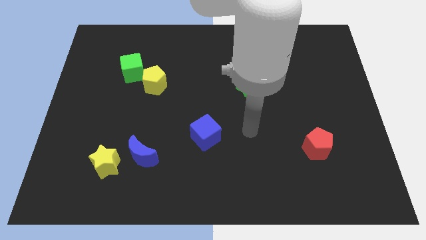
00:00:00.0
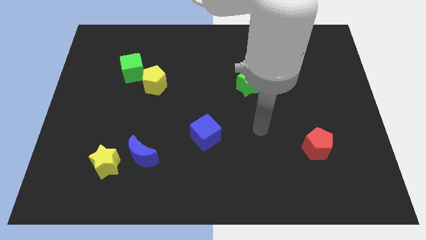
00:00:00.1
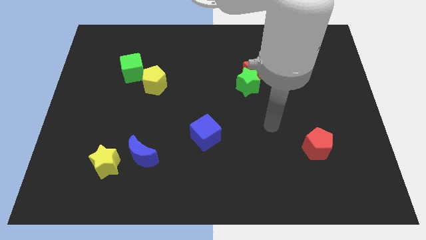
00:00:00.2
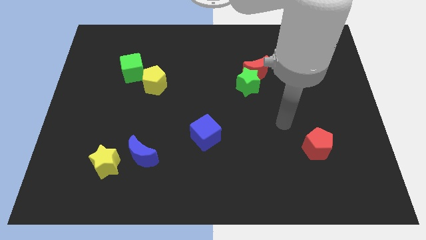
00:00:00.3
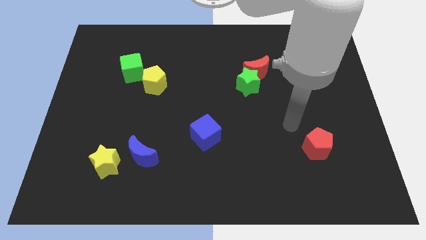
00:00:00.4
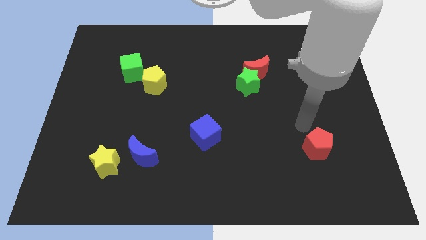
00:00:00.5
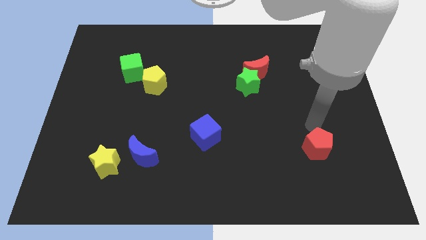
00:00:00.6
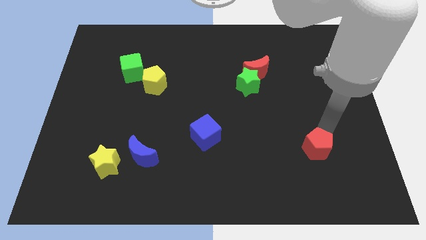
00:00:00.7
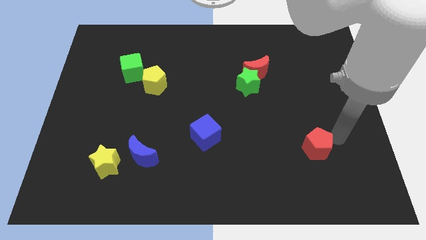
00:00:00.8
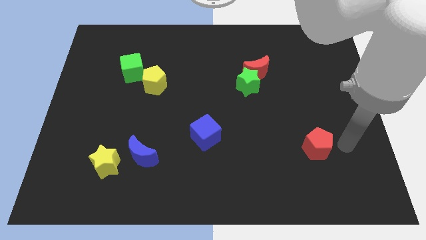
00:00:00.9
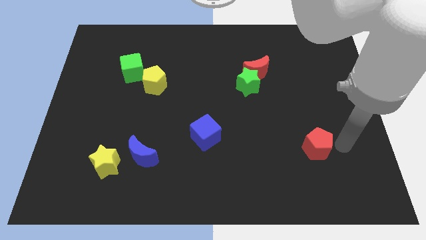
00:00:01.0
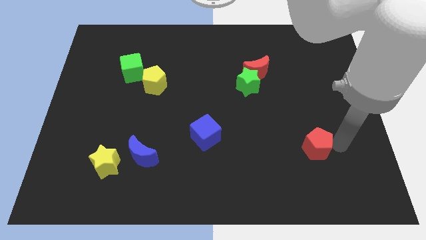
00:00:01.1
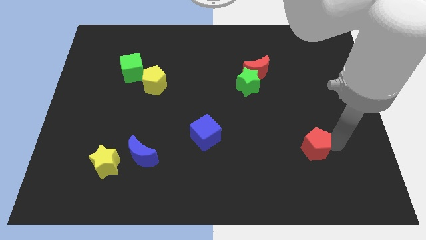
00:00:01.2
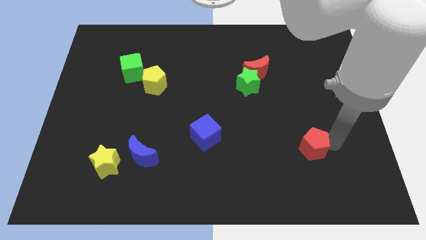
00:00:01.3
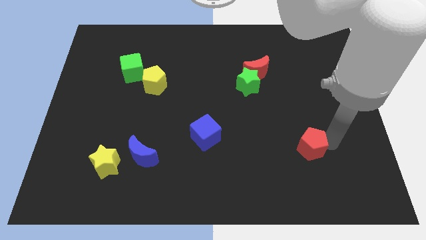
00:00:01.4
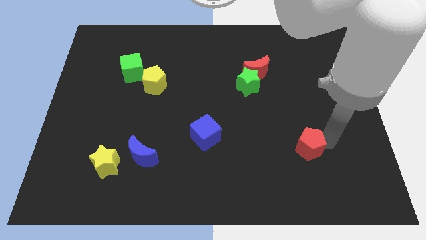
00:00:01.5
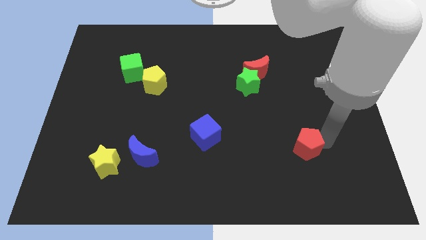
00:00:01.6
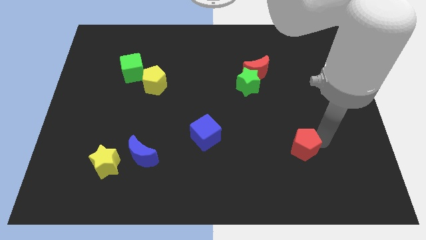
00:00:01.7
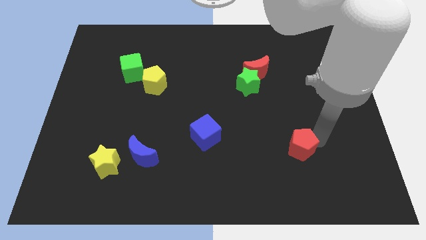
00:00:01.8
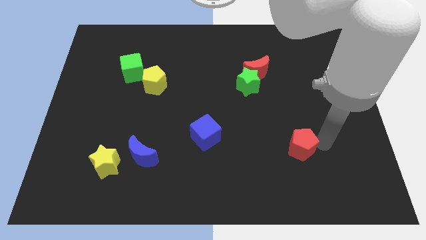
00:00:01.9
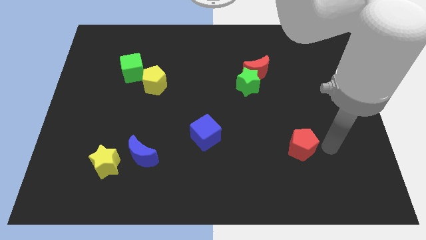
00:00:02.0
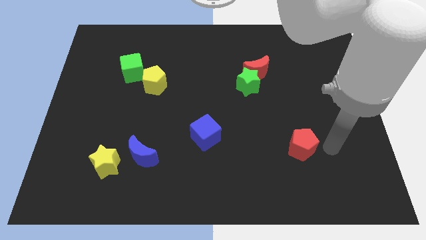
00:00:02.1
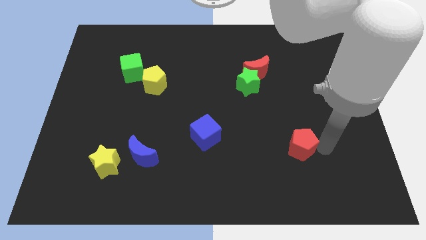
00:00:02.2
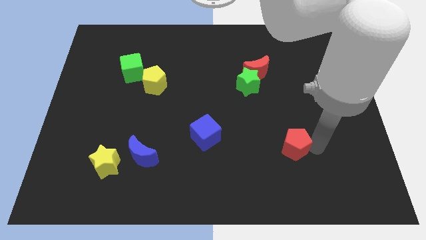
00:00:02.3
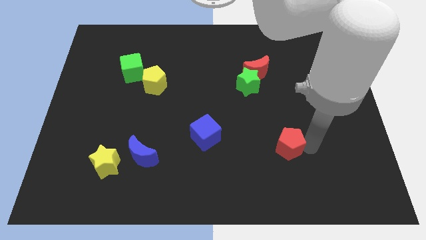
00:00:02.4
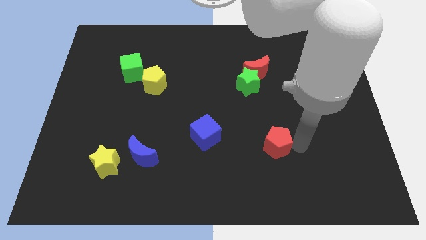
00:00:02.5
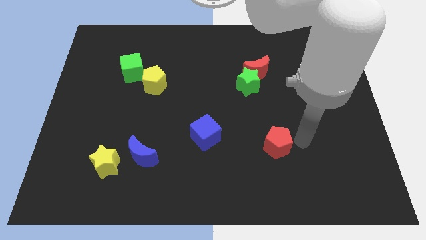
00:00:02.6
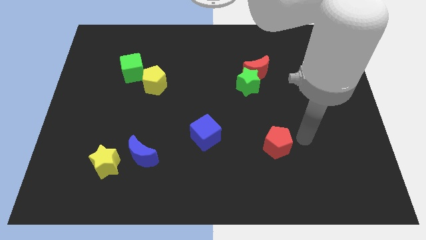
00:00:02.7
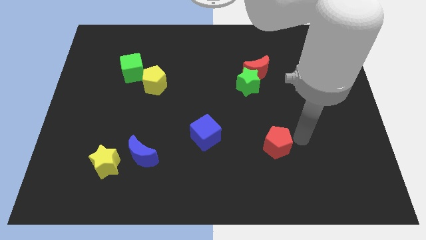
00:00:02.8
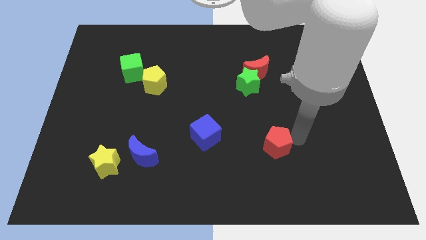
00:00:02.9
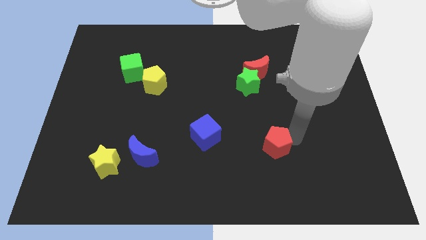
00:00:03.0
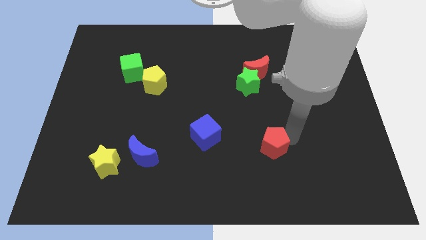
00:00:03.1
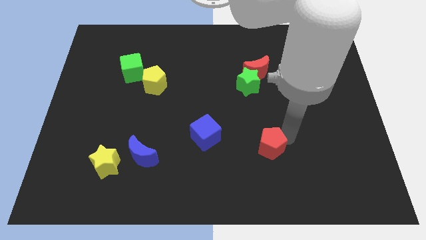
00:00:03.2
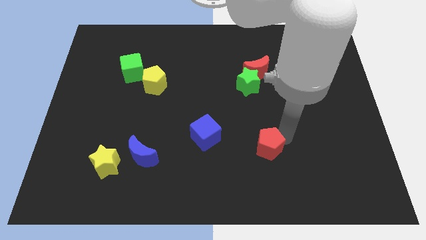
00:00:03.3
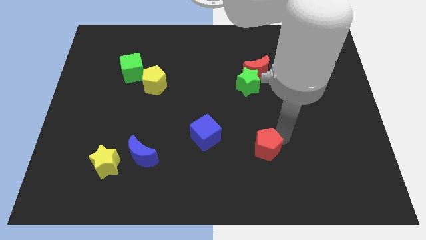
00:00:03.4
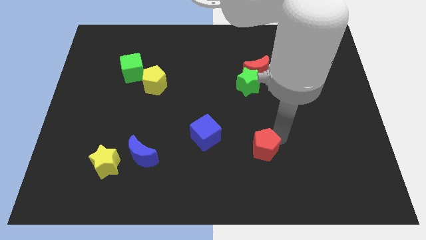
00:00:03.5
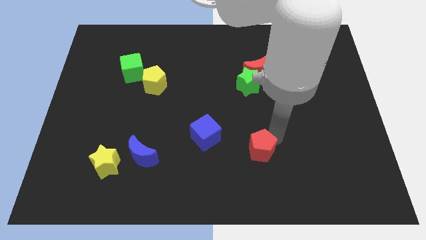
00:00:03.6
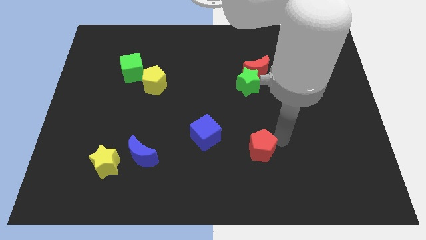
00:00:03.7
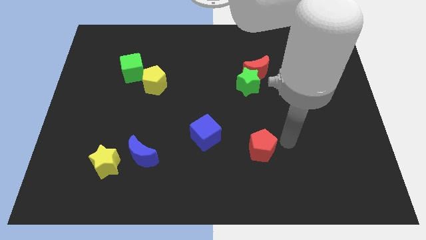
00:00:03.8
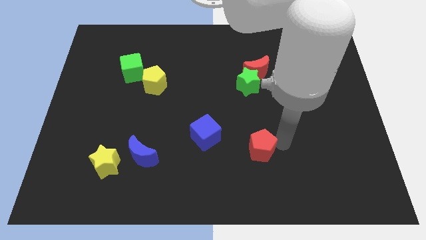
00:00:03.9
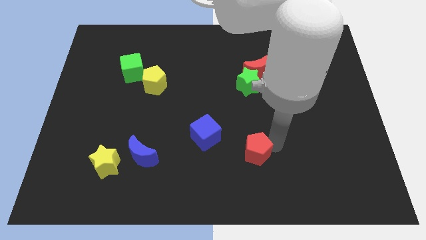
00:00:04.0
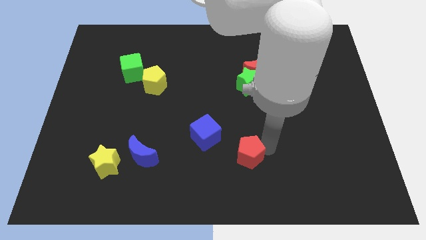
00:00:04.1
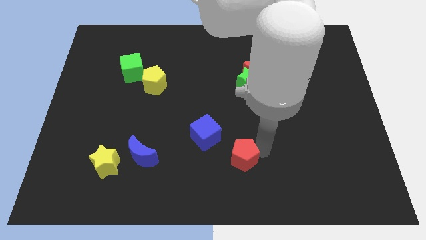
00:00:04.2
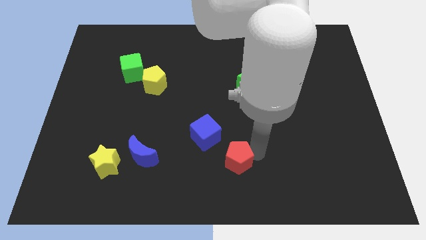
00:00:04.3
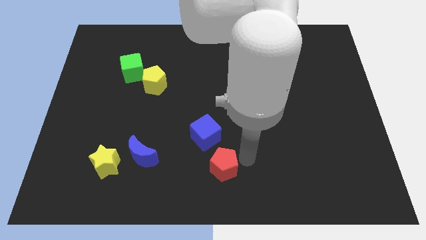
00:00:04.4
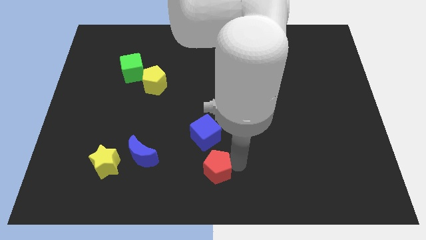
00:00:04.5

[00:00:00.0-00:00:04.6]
push the red pentagon left

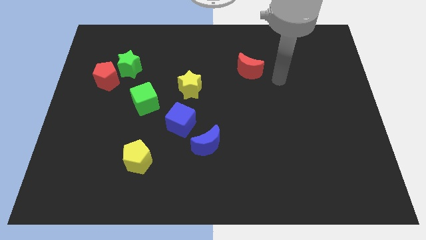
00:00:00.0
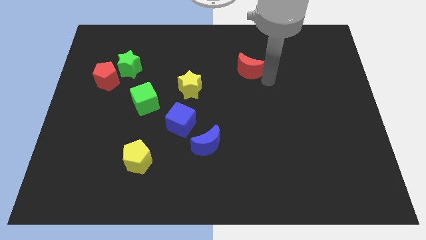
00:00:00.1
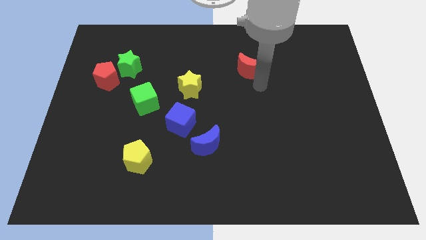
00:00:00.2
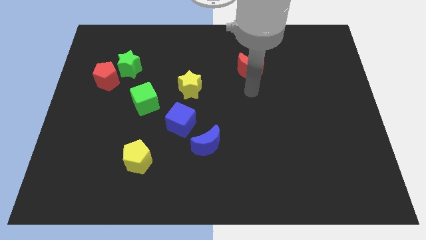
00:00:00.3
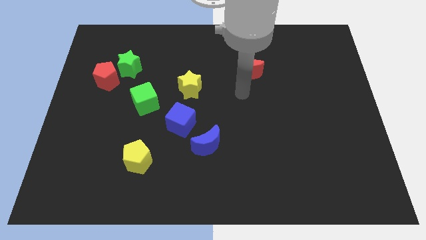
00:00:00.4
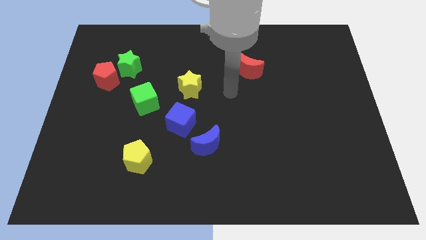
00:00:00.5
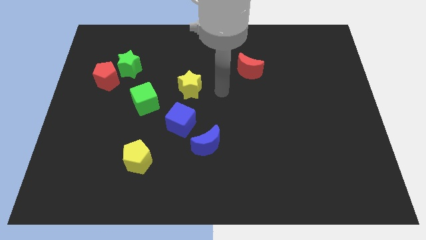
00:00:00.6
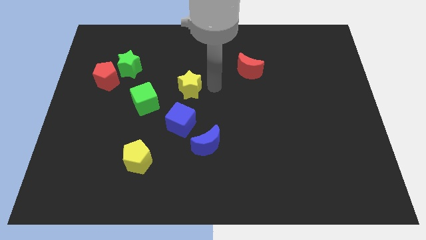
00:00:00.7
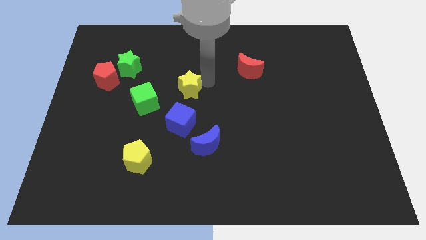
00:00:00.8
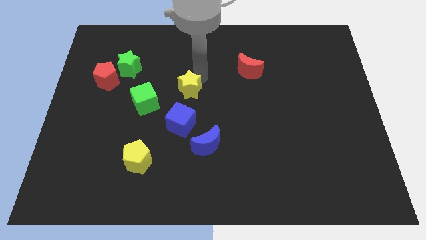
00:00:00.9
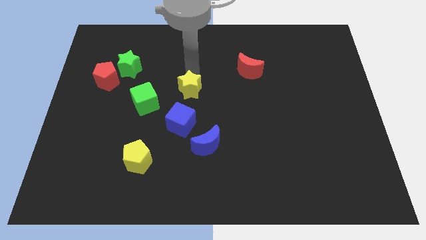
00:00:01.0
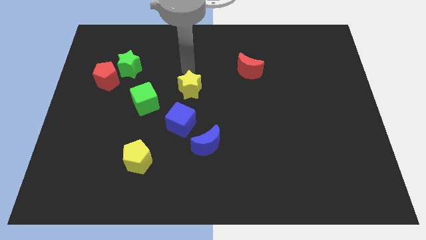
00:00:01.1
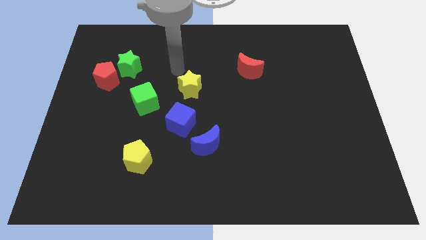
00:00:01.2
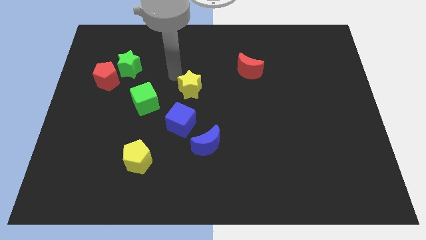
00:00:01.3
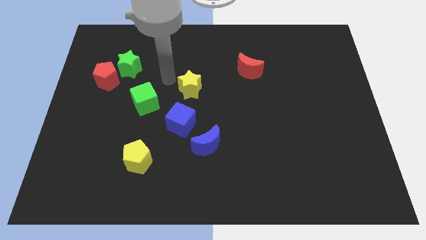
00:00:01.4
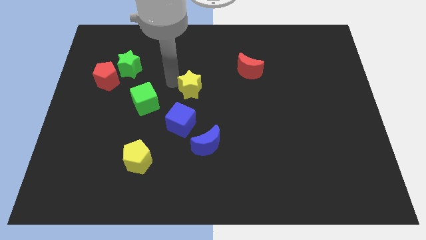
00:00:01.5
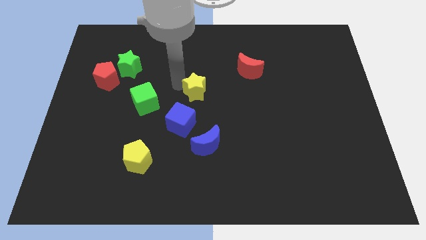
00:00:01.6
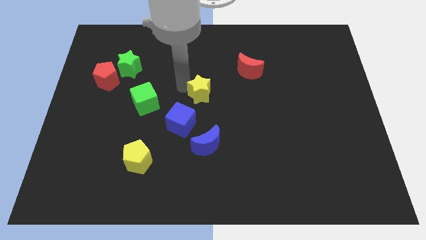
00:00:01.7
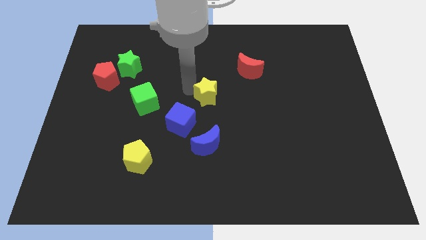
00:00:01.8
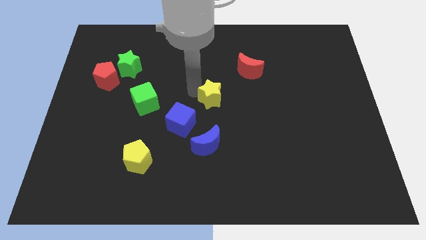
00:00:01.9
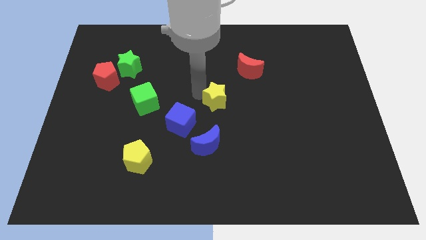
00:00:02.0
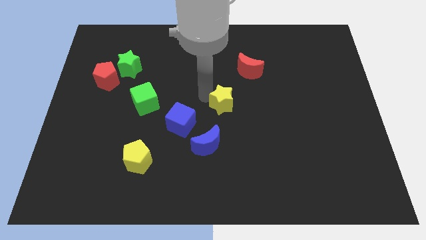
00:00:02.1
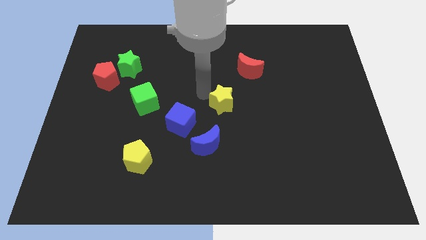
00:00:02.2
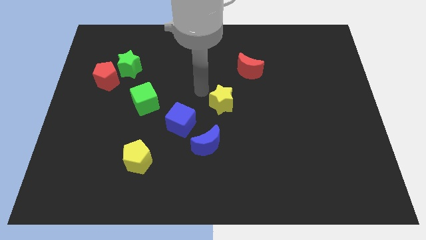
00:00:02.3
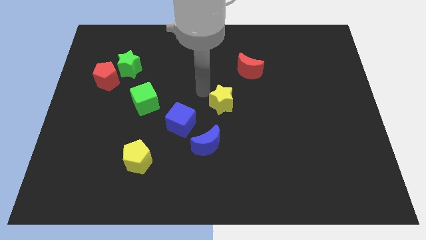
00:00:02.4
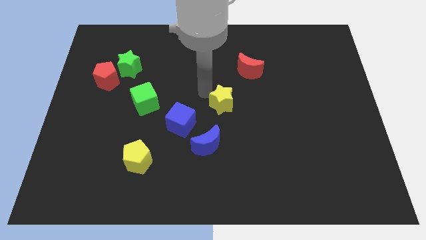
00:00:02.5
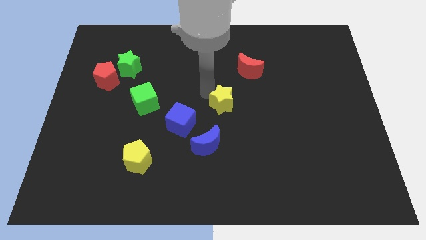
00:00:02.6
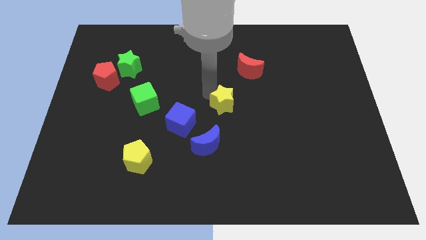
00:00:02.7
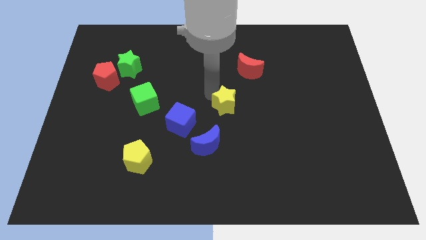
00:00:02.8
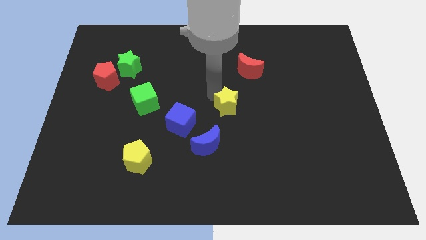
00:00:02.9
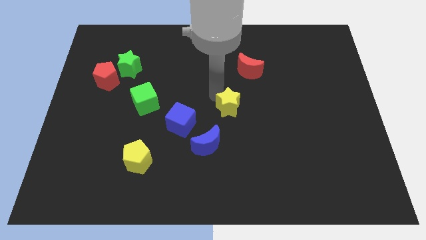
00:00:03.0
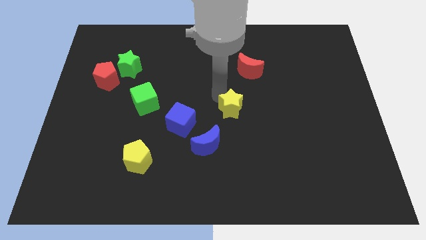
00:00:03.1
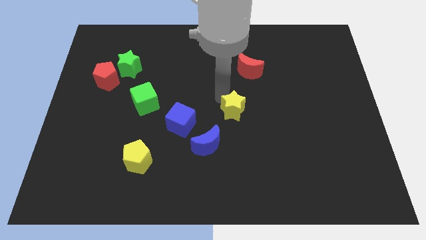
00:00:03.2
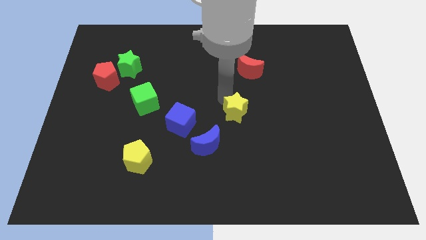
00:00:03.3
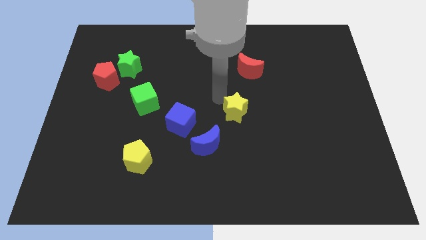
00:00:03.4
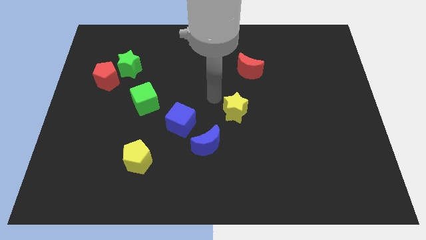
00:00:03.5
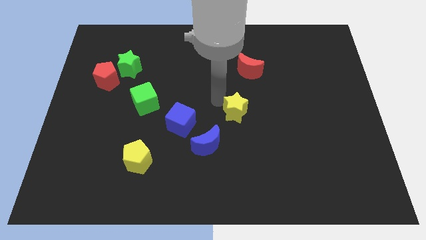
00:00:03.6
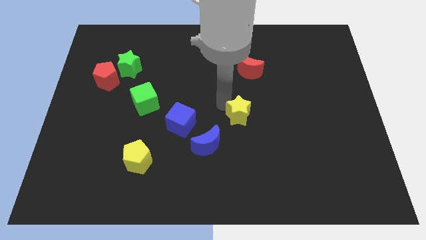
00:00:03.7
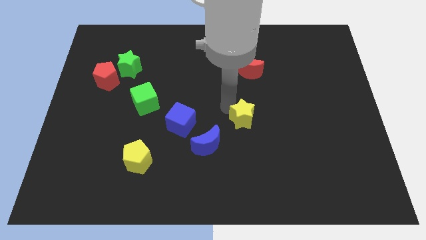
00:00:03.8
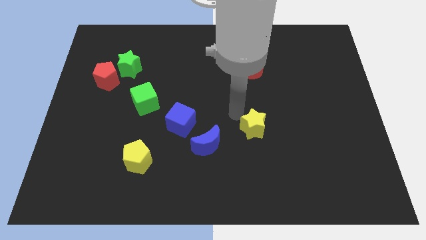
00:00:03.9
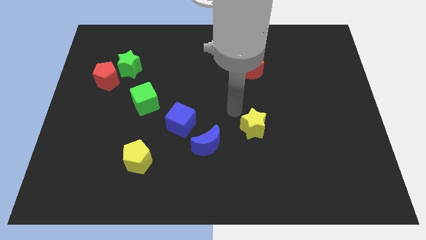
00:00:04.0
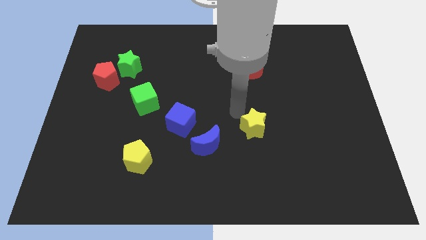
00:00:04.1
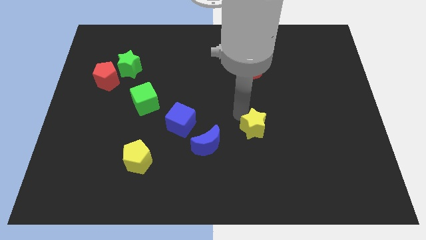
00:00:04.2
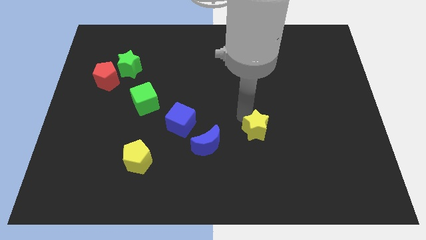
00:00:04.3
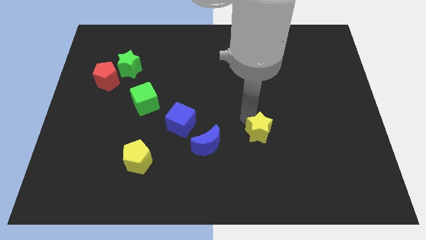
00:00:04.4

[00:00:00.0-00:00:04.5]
push the yellow star down and to the right diagonally
